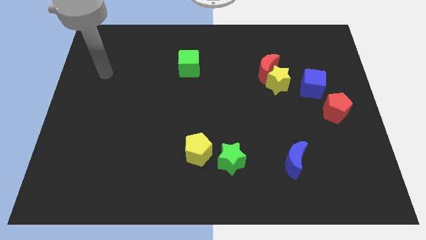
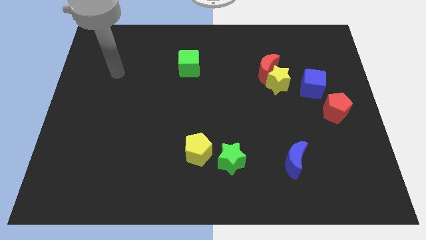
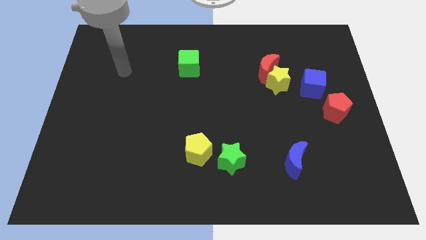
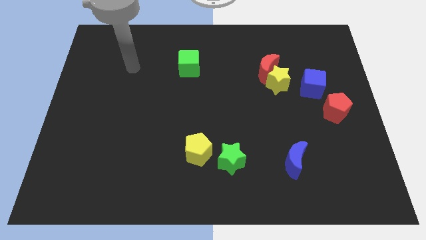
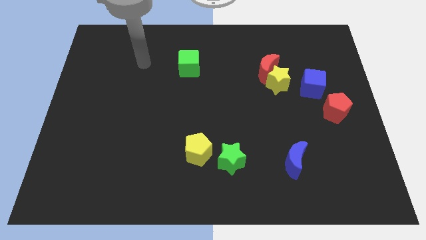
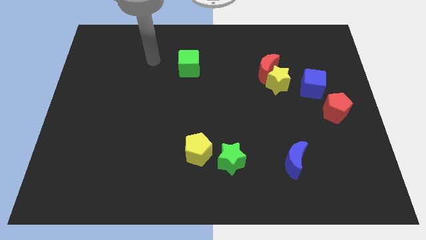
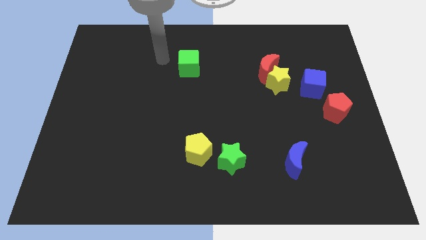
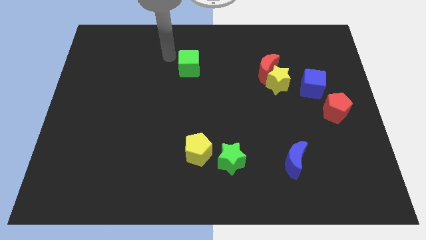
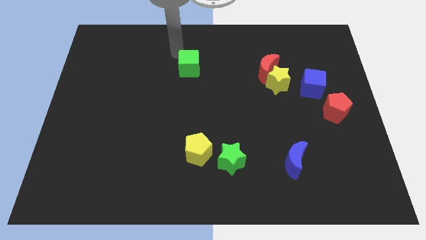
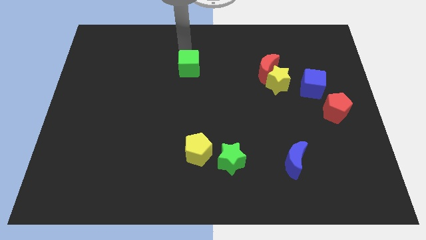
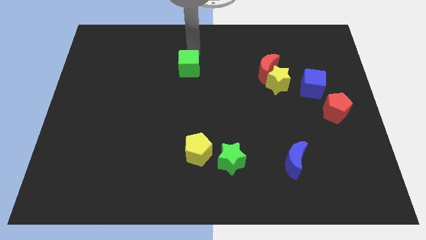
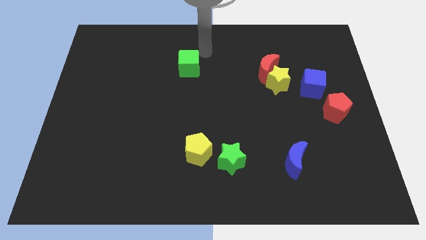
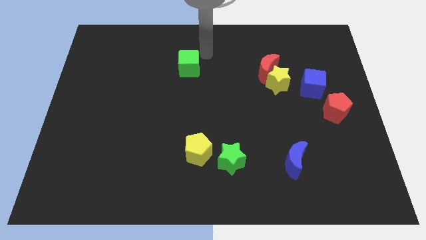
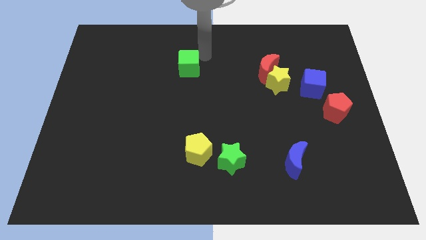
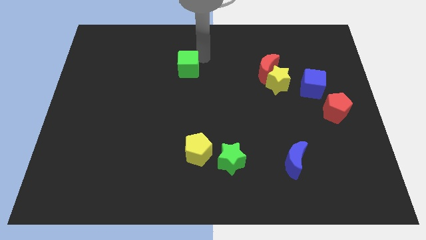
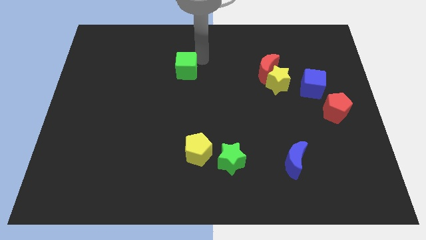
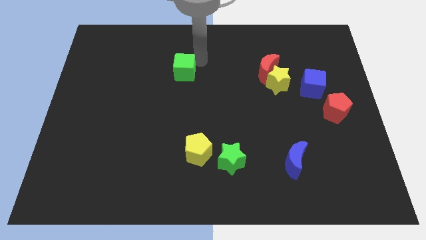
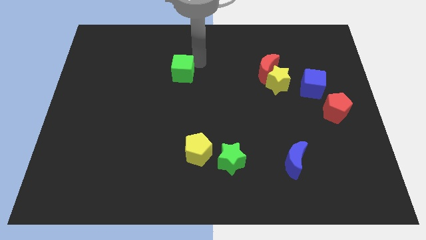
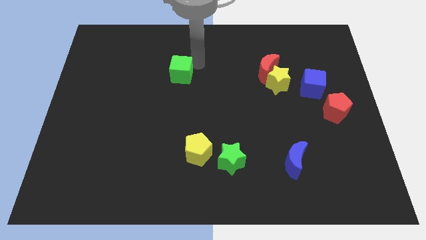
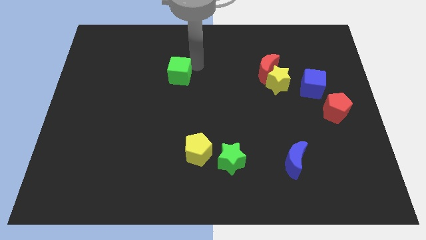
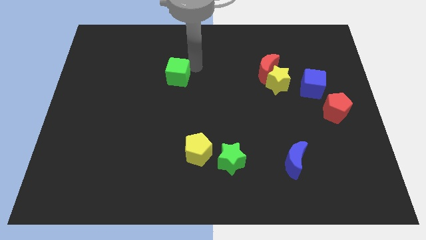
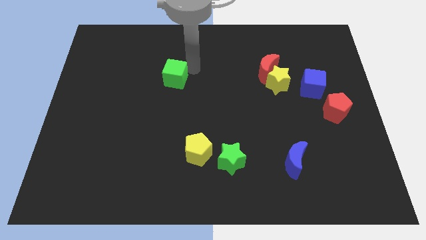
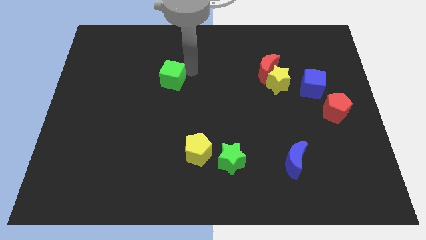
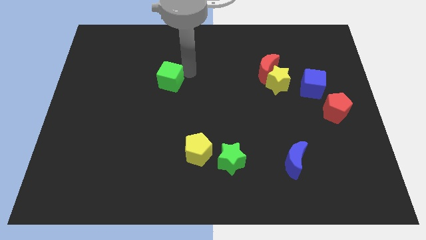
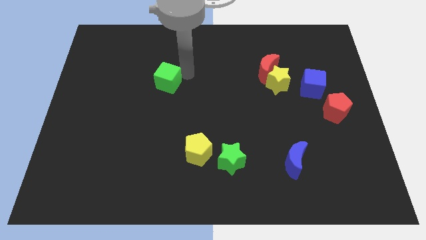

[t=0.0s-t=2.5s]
move the green cube a bit downwards and to the left

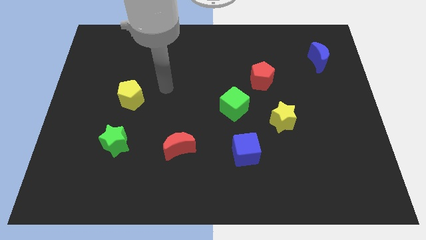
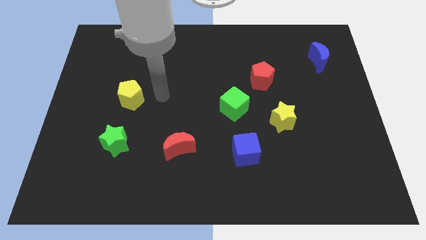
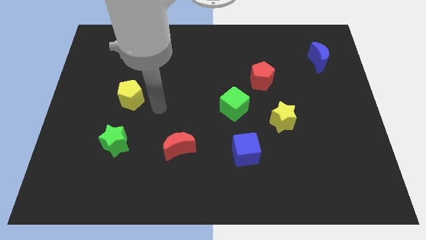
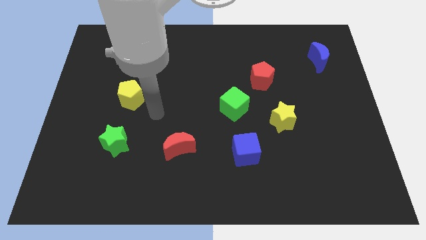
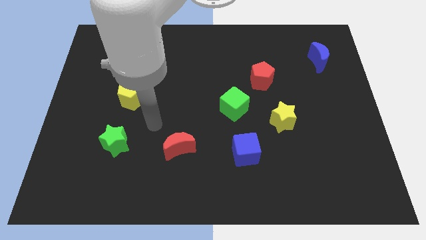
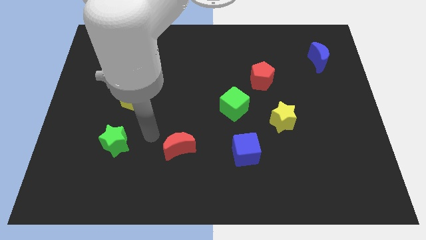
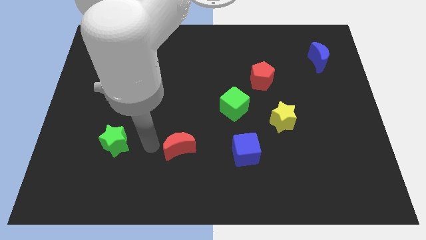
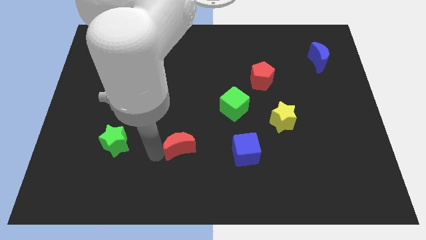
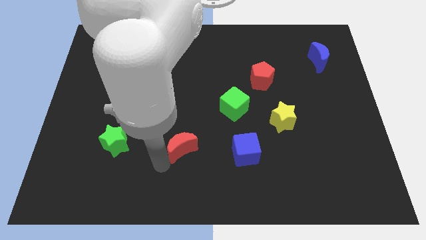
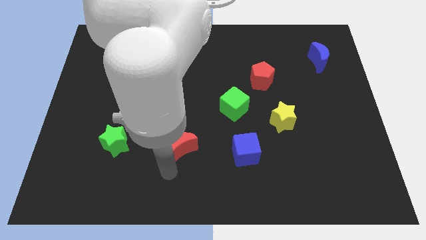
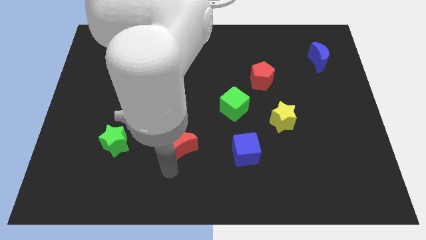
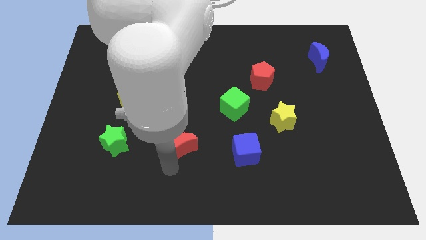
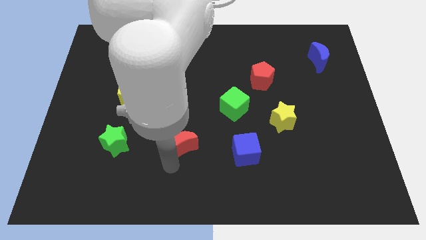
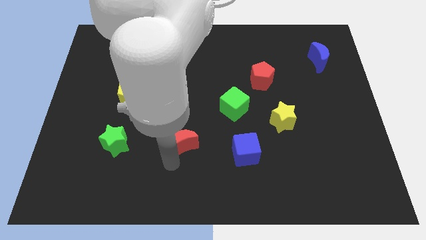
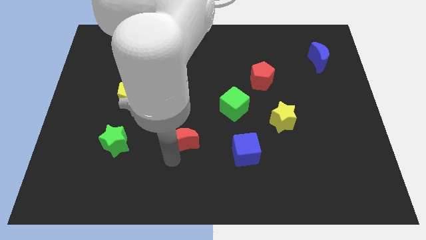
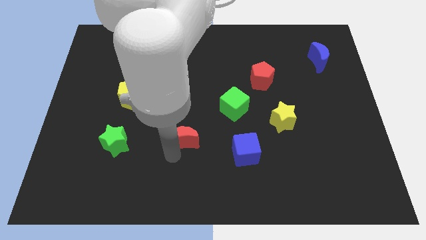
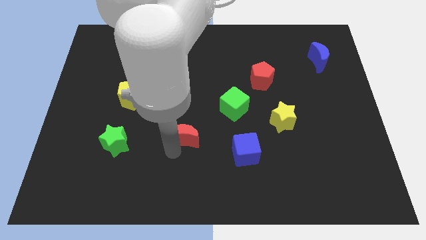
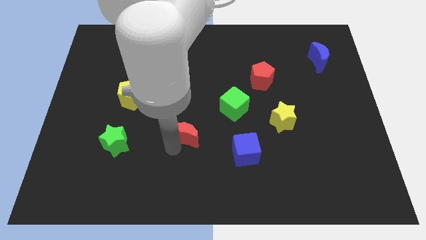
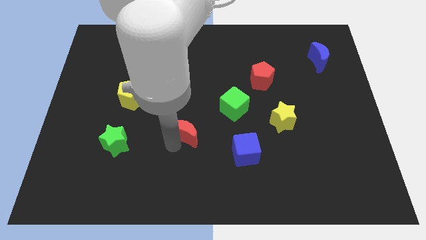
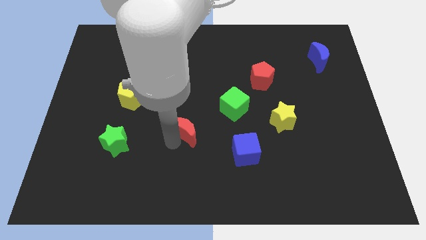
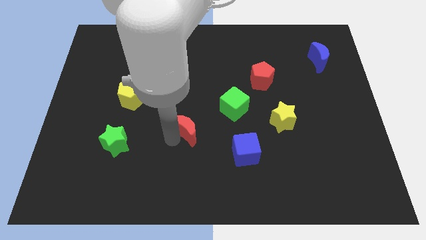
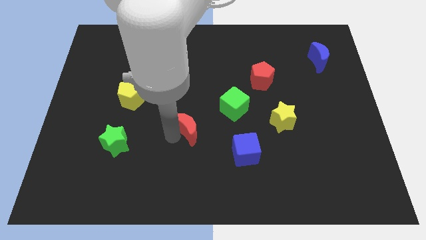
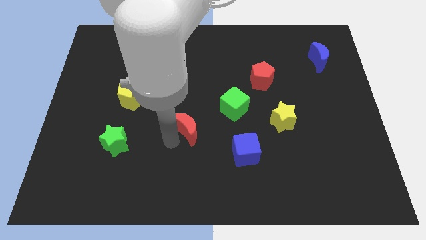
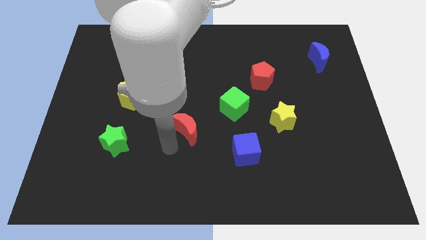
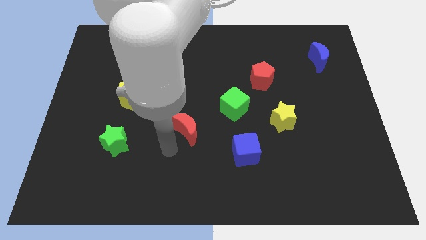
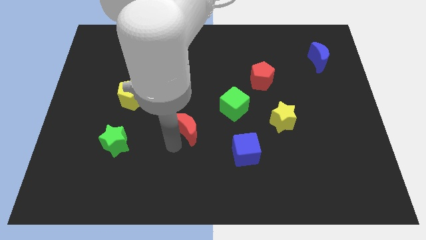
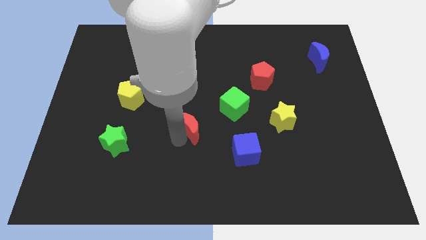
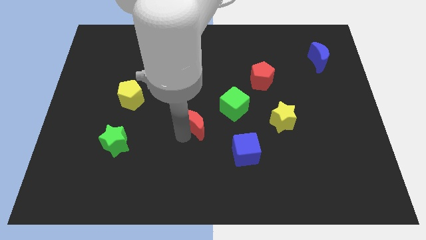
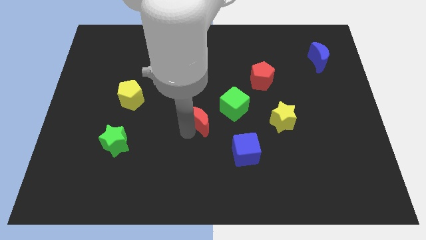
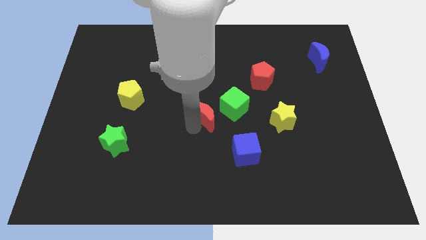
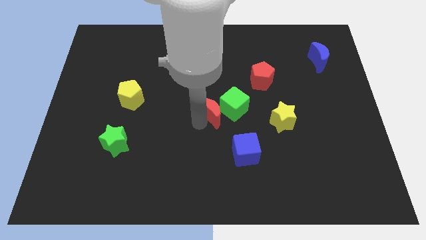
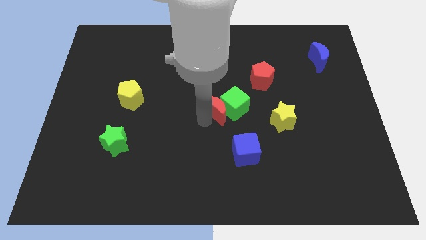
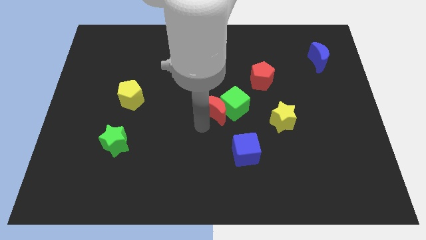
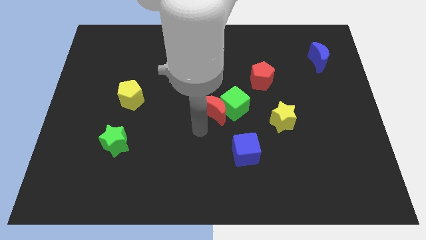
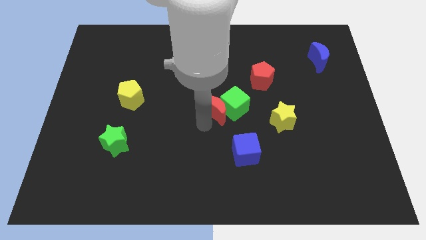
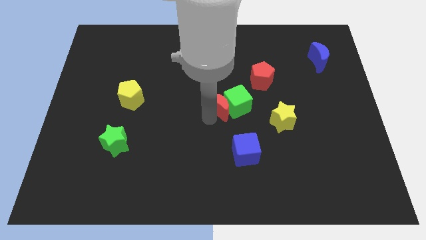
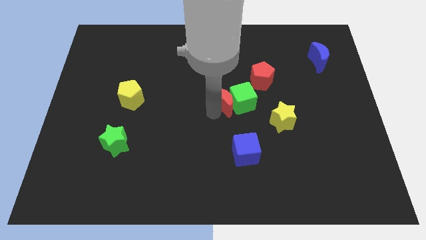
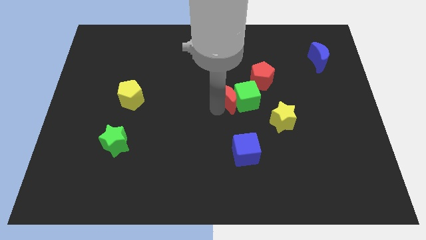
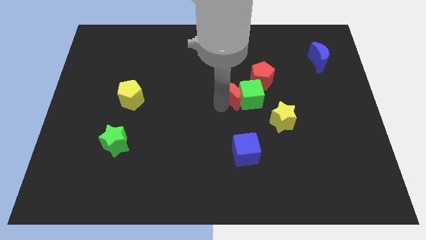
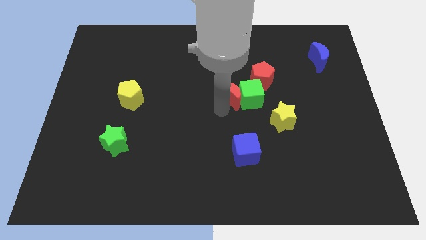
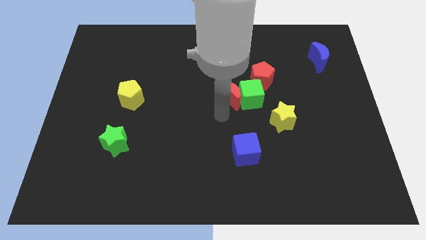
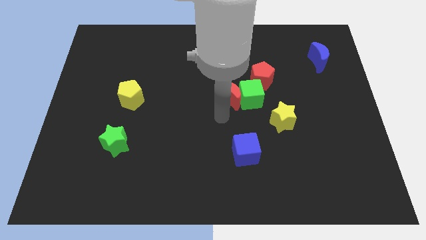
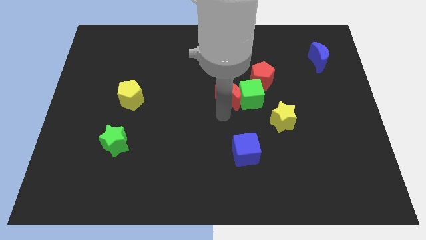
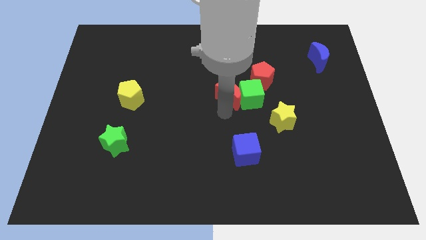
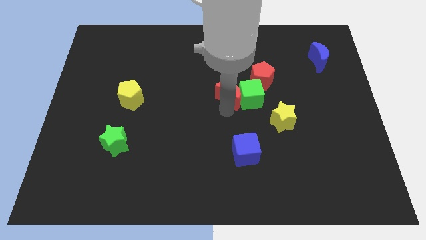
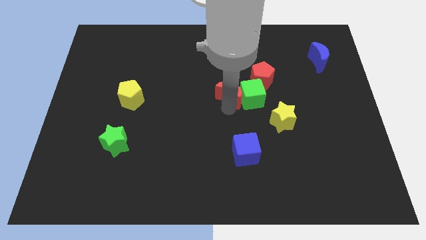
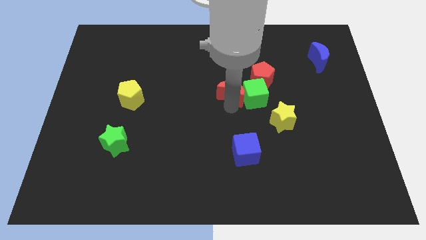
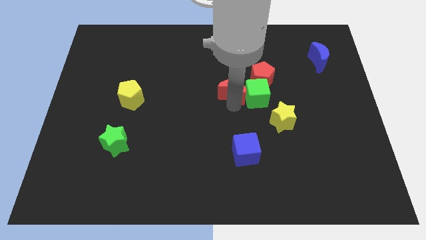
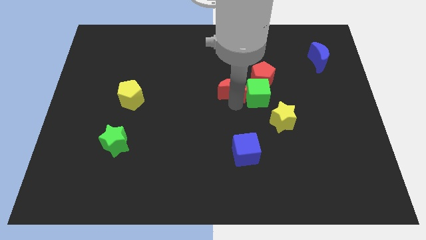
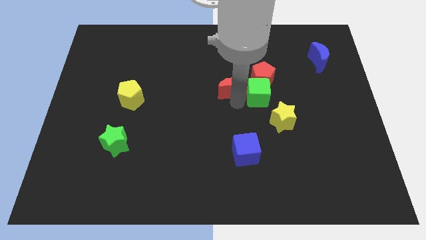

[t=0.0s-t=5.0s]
push the red moon up and to the right diagonally

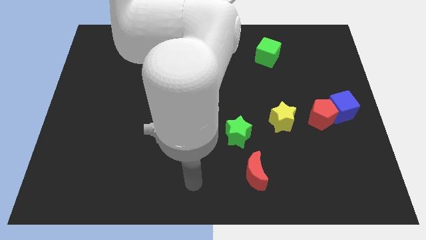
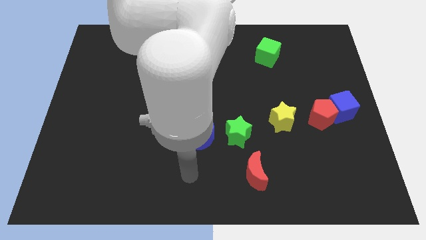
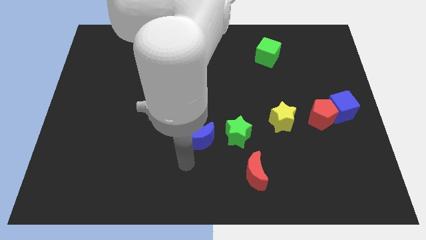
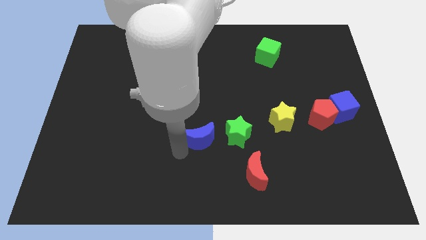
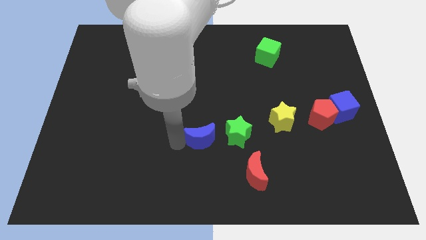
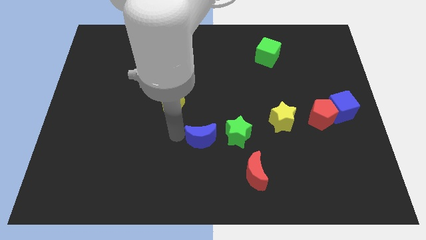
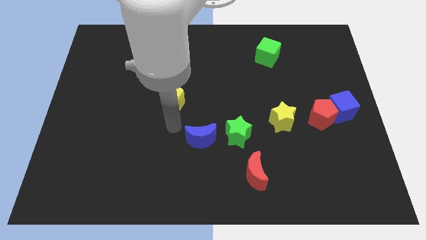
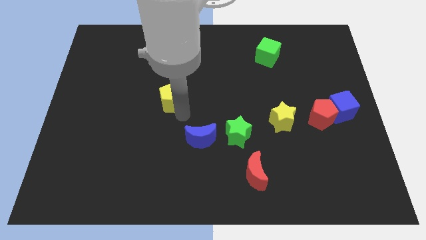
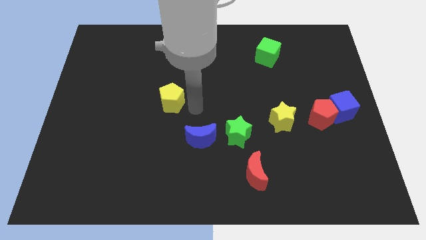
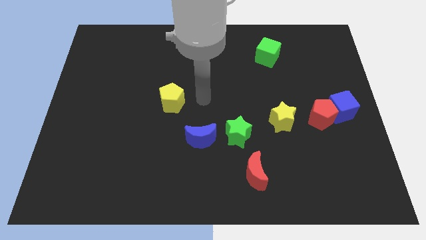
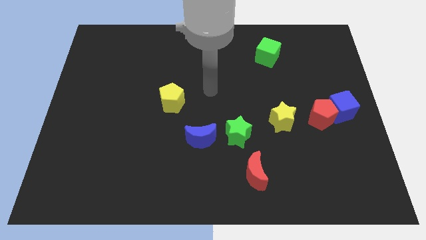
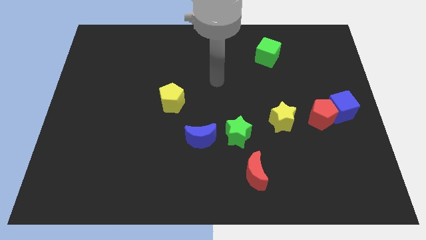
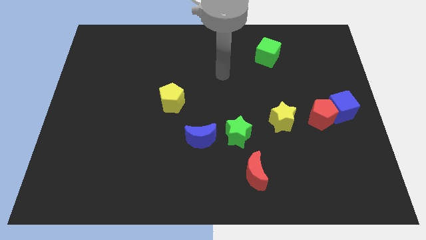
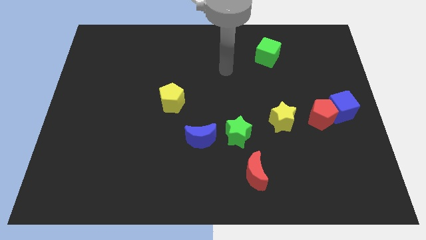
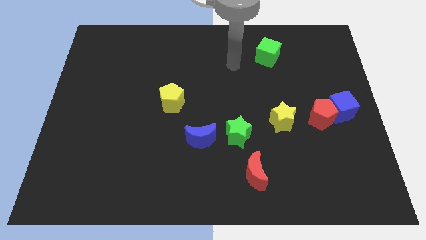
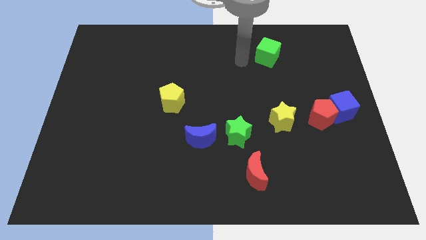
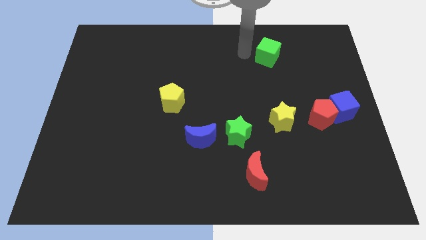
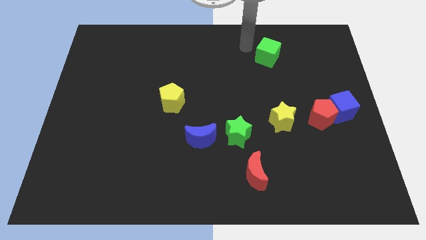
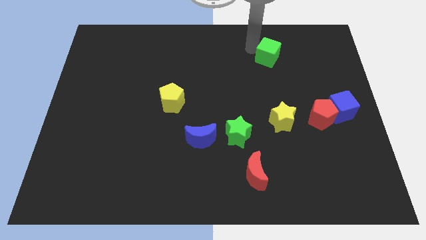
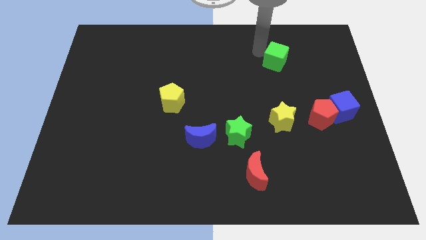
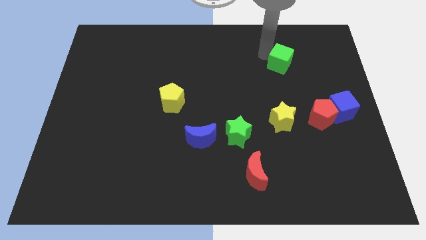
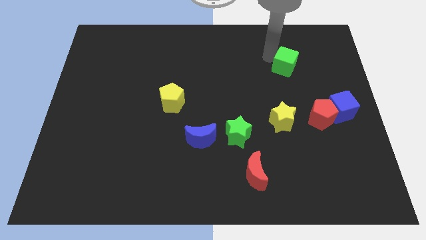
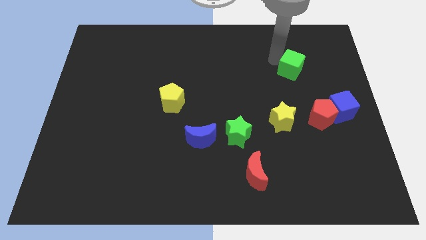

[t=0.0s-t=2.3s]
push the green cube down and to the right slightly
